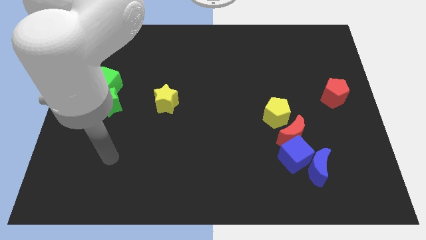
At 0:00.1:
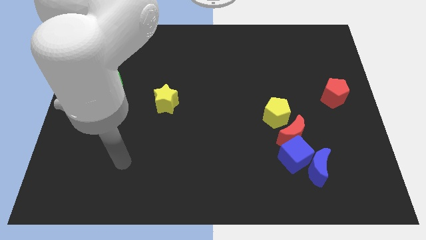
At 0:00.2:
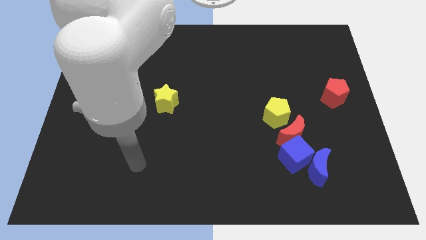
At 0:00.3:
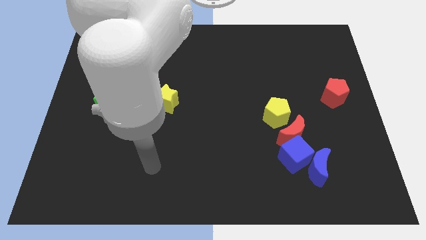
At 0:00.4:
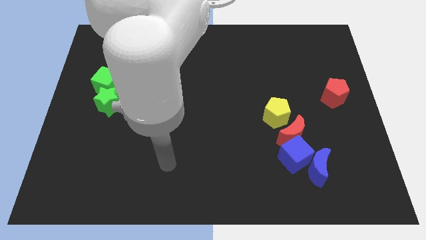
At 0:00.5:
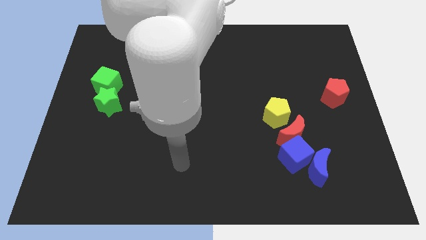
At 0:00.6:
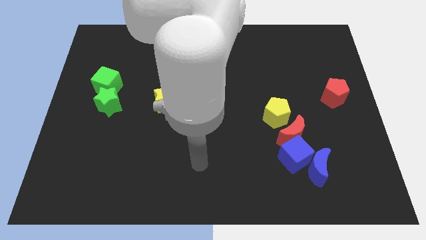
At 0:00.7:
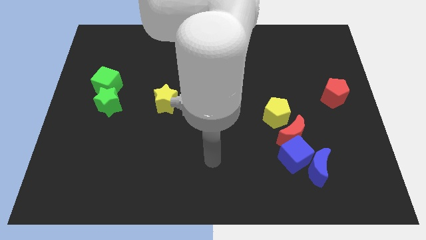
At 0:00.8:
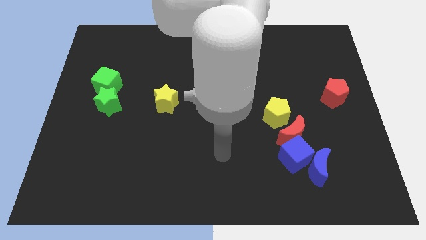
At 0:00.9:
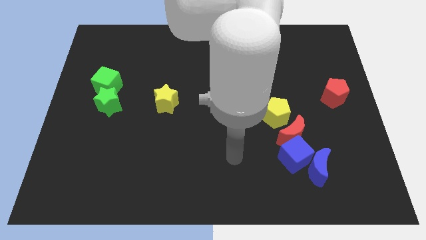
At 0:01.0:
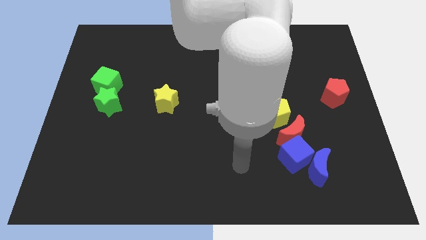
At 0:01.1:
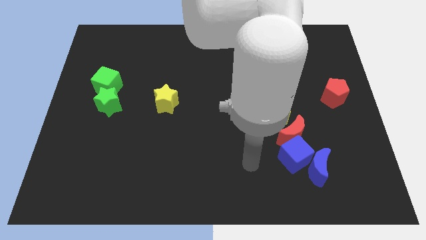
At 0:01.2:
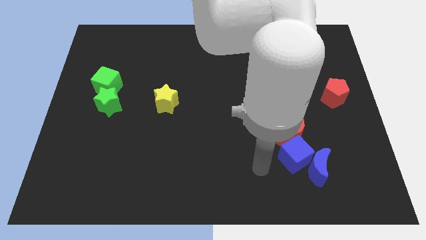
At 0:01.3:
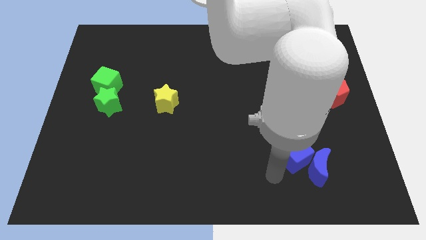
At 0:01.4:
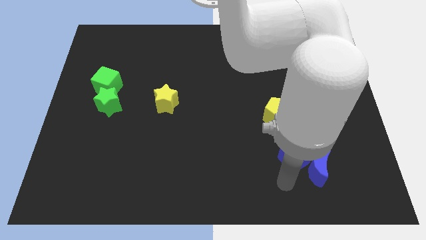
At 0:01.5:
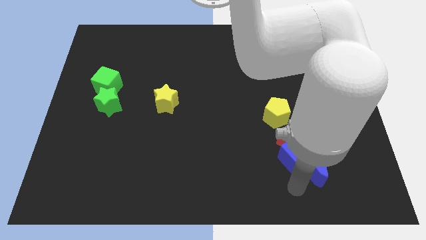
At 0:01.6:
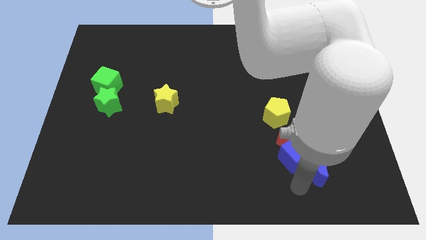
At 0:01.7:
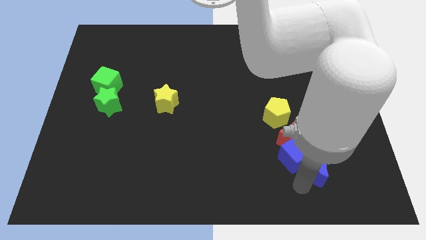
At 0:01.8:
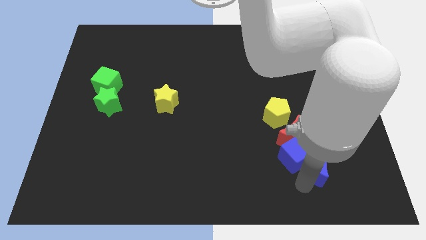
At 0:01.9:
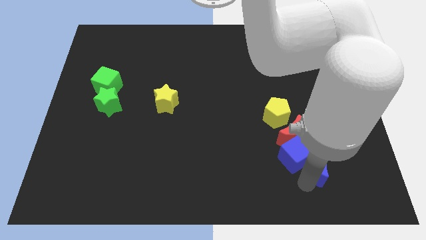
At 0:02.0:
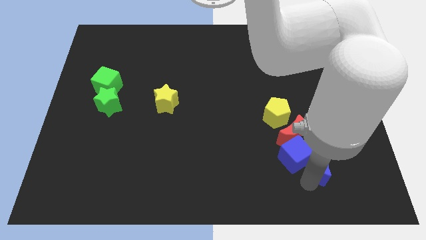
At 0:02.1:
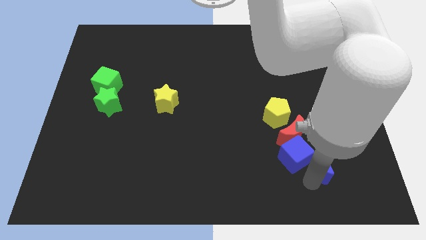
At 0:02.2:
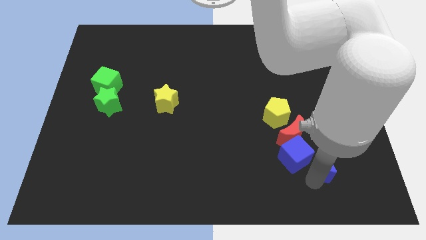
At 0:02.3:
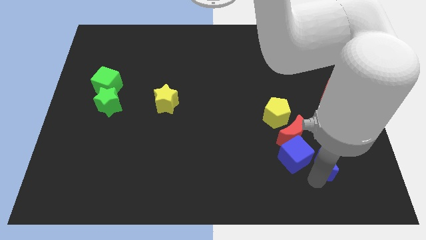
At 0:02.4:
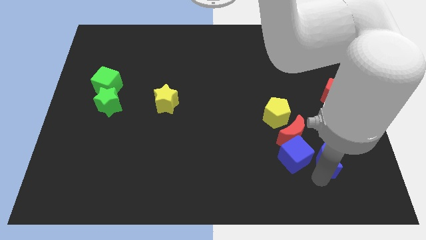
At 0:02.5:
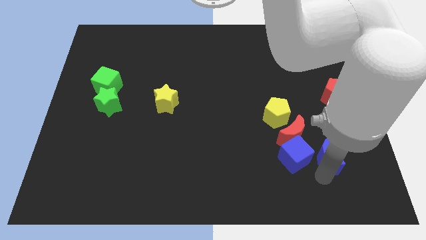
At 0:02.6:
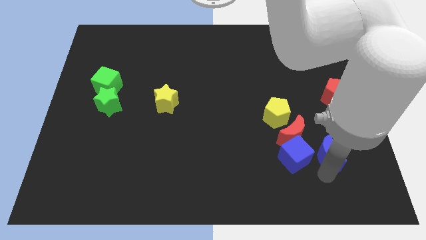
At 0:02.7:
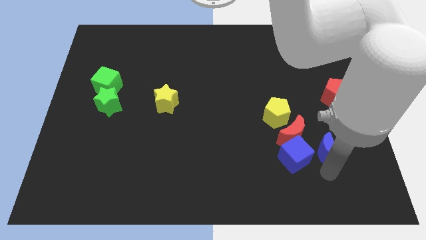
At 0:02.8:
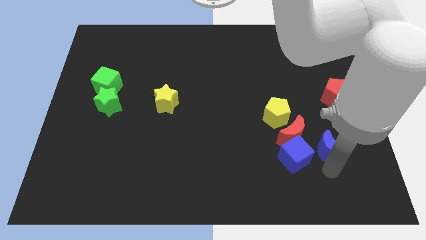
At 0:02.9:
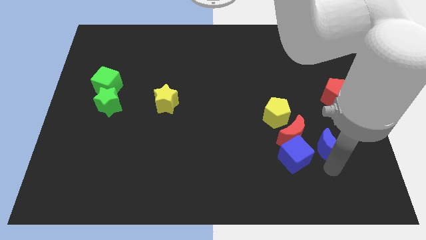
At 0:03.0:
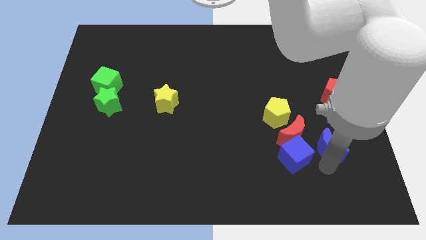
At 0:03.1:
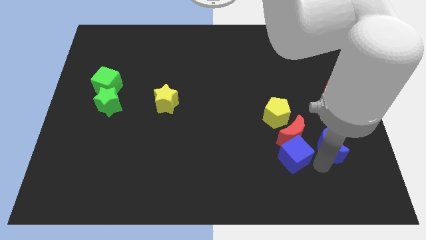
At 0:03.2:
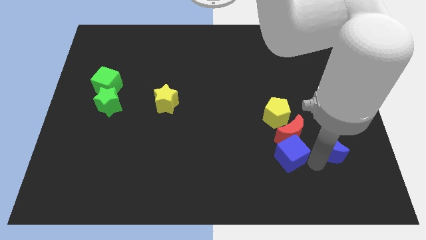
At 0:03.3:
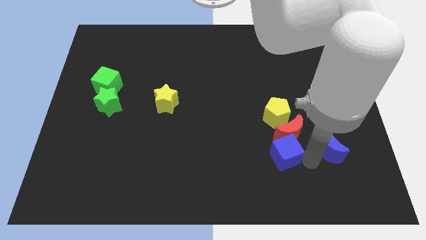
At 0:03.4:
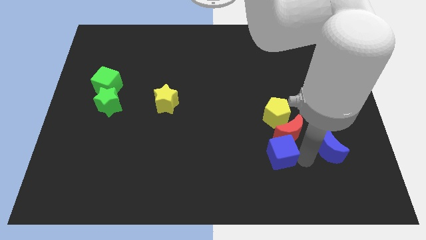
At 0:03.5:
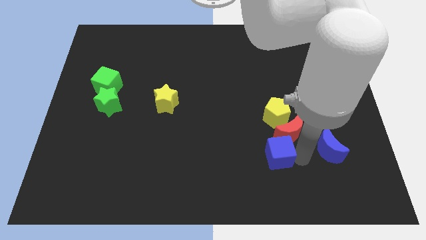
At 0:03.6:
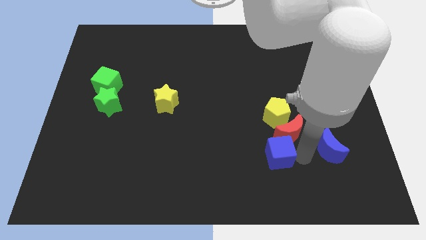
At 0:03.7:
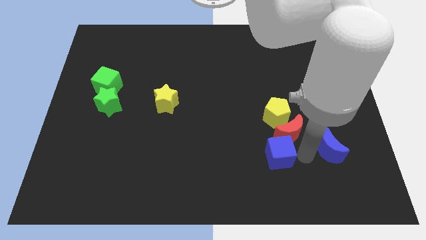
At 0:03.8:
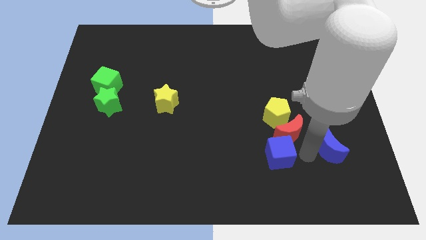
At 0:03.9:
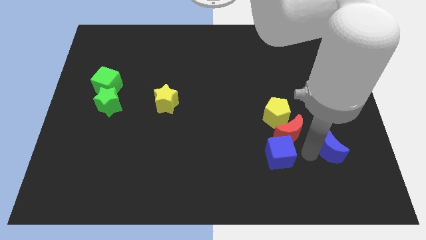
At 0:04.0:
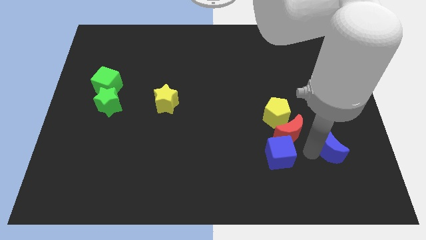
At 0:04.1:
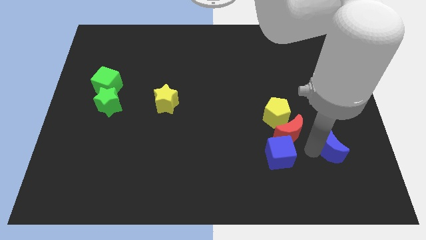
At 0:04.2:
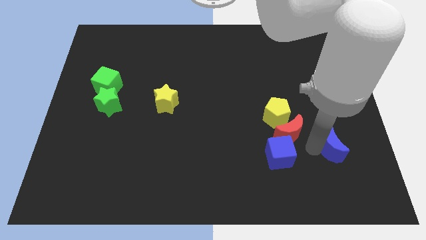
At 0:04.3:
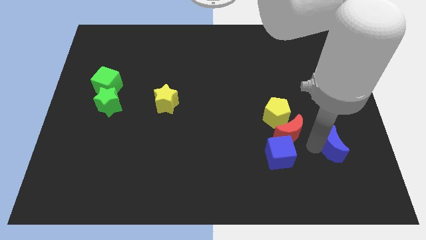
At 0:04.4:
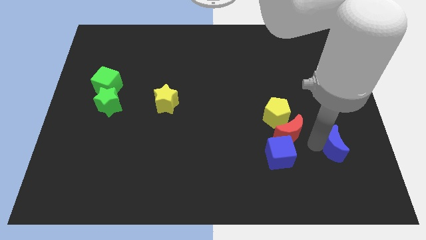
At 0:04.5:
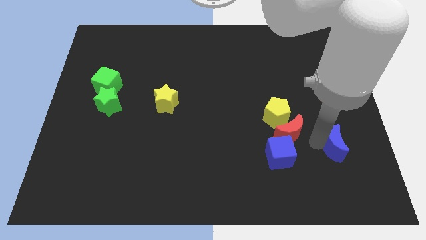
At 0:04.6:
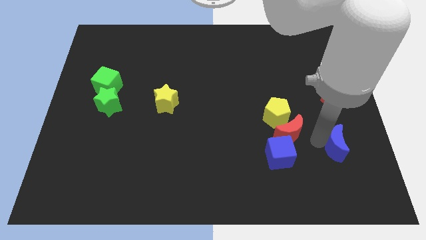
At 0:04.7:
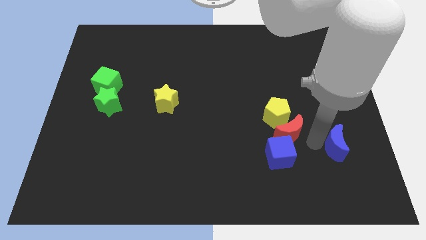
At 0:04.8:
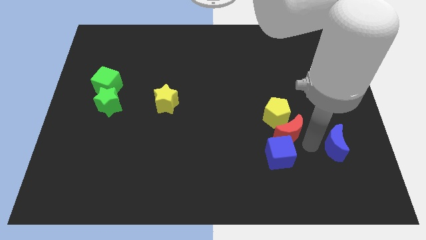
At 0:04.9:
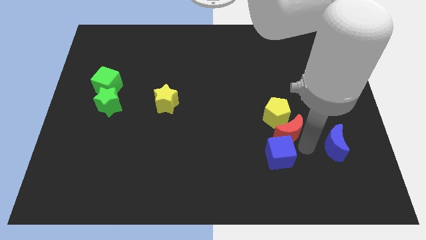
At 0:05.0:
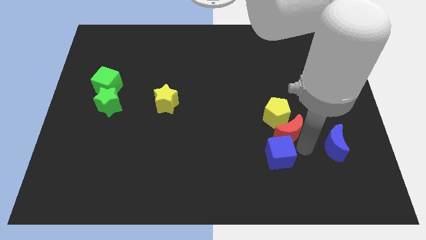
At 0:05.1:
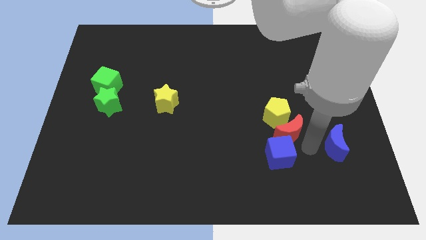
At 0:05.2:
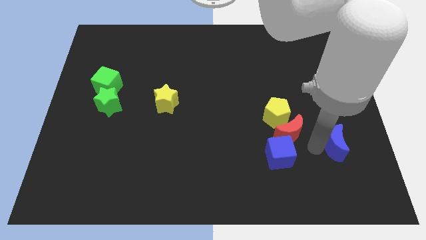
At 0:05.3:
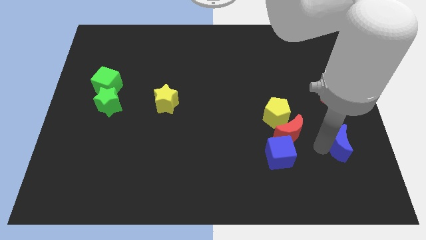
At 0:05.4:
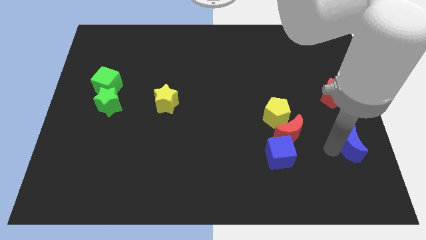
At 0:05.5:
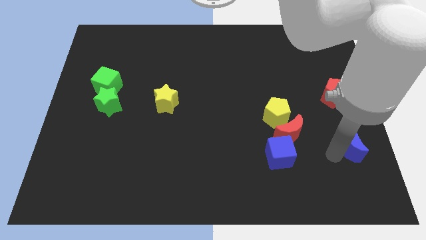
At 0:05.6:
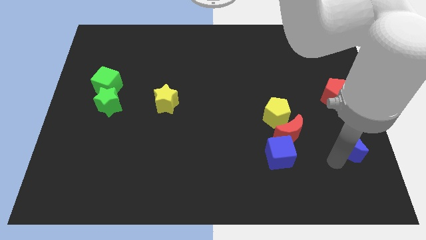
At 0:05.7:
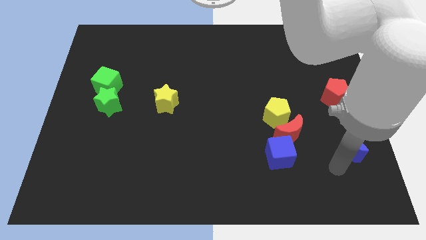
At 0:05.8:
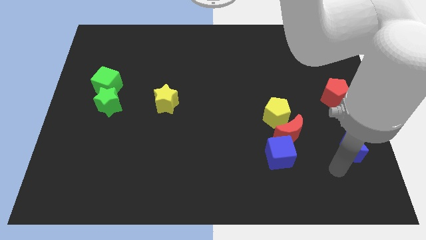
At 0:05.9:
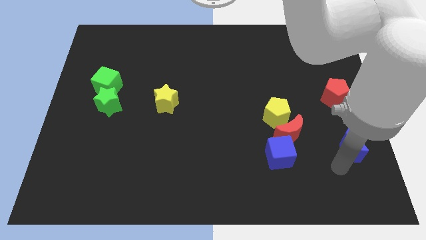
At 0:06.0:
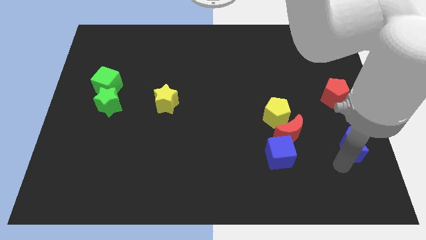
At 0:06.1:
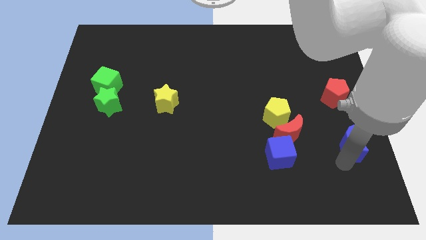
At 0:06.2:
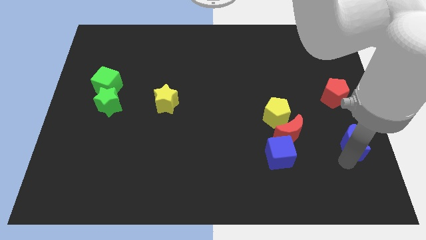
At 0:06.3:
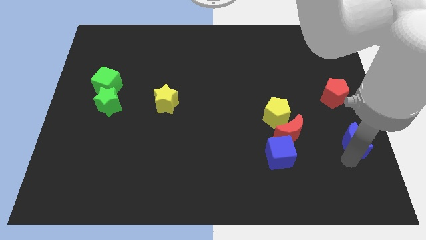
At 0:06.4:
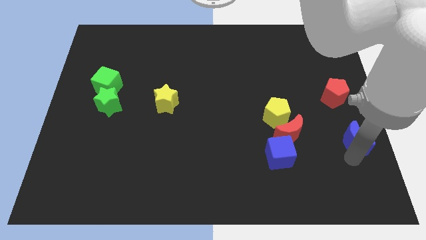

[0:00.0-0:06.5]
move the blue moon to the right side

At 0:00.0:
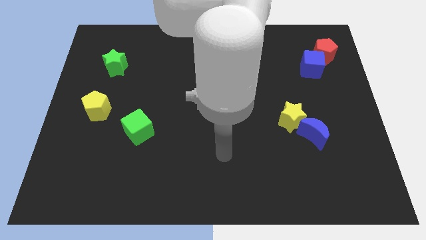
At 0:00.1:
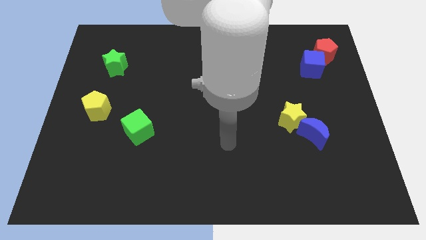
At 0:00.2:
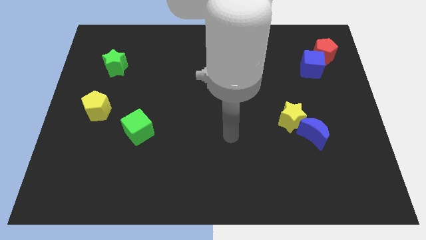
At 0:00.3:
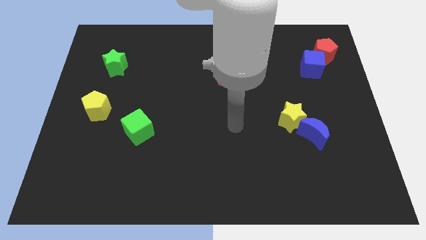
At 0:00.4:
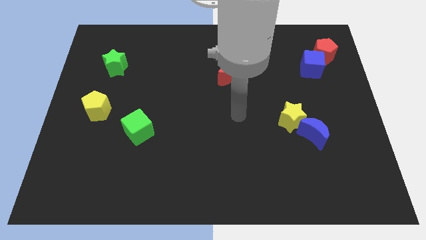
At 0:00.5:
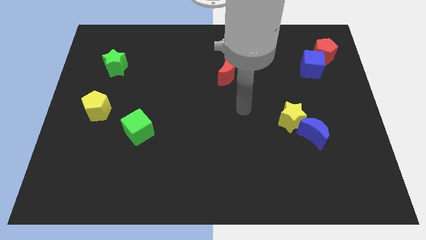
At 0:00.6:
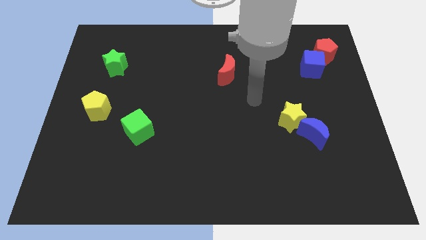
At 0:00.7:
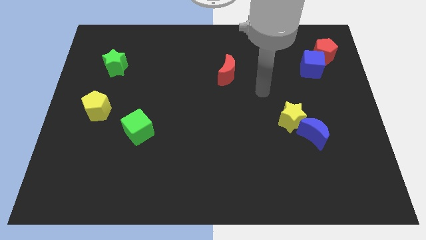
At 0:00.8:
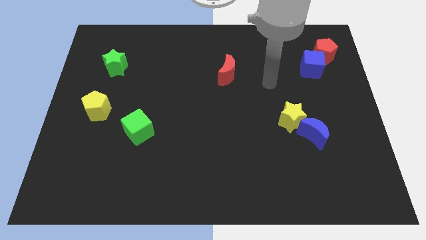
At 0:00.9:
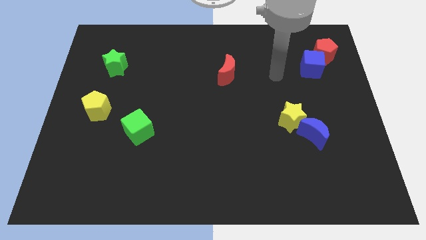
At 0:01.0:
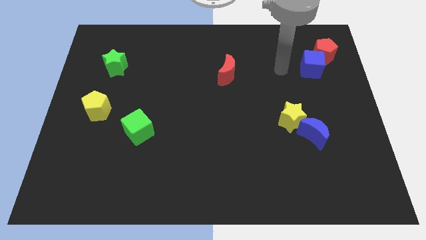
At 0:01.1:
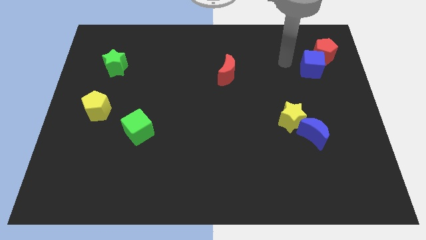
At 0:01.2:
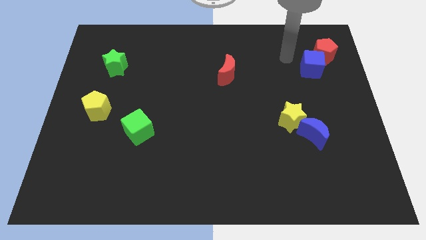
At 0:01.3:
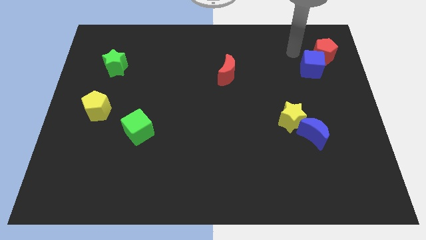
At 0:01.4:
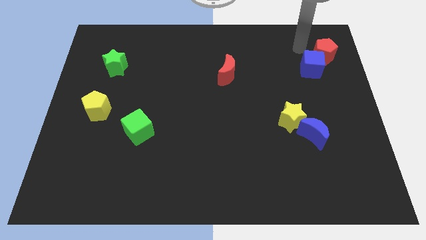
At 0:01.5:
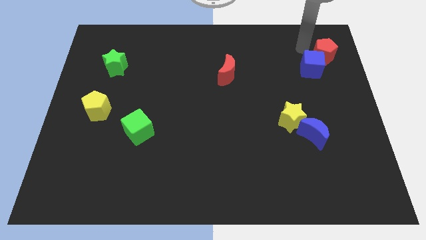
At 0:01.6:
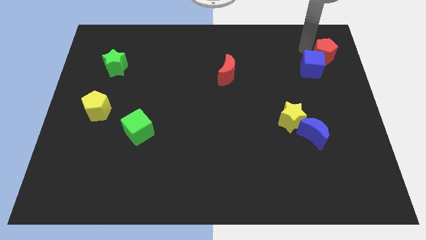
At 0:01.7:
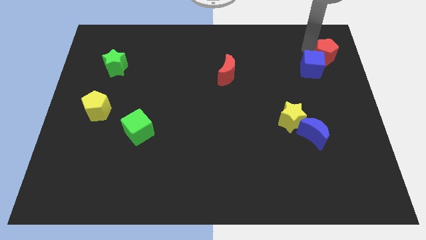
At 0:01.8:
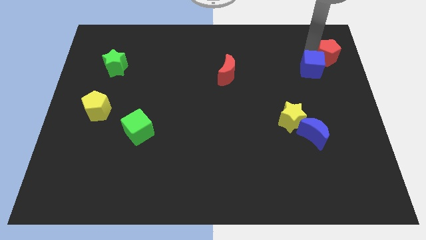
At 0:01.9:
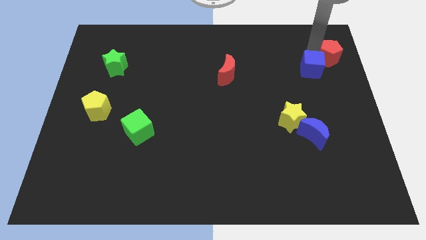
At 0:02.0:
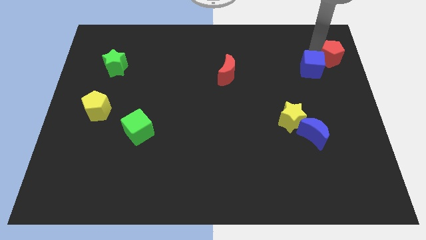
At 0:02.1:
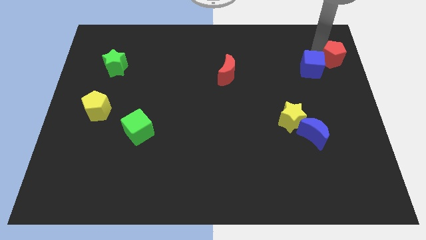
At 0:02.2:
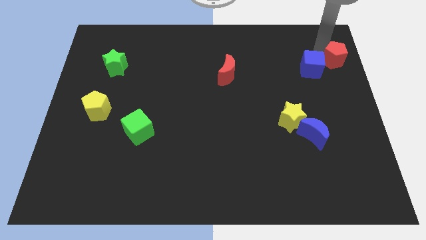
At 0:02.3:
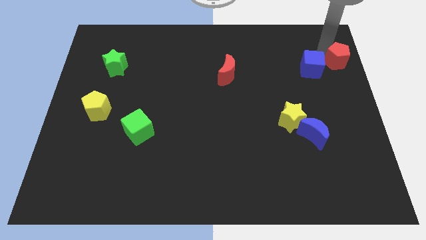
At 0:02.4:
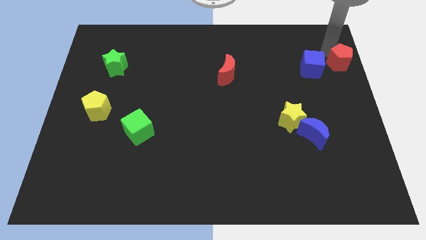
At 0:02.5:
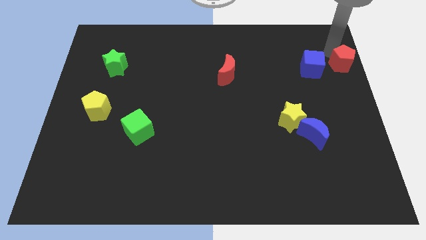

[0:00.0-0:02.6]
push the red pentagon to the right side of the board
